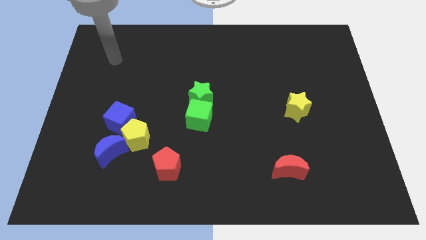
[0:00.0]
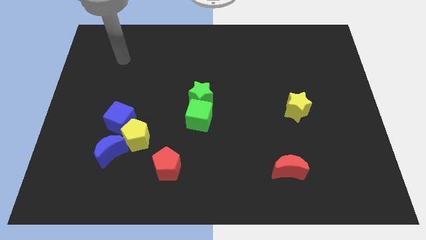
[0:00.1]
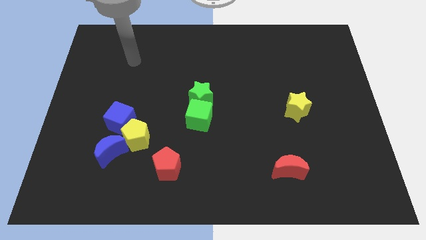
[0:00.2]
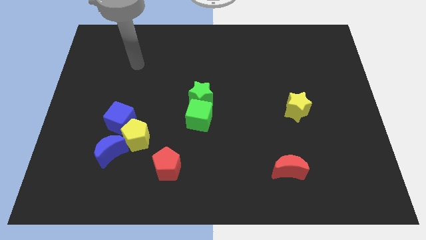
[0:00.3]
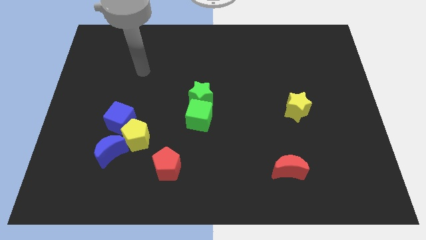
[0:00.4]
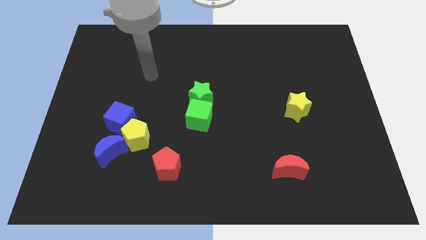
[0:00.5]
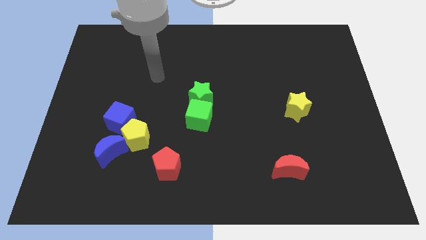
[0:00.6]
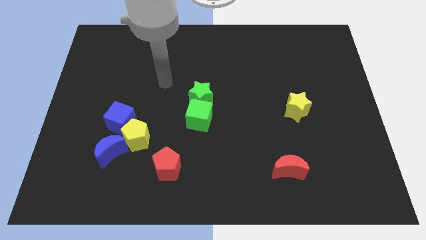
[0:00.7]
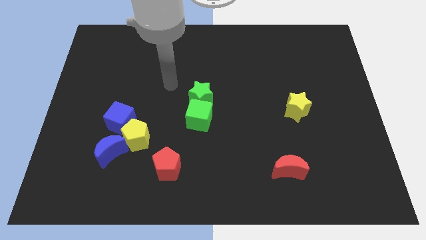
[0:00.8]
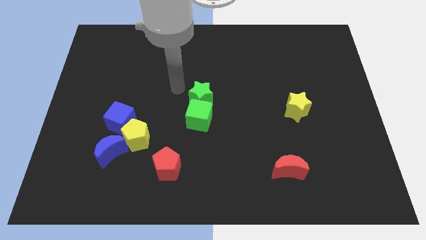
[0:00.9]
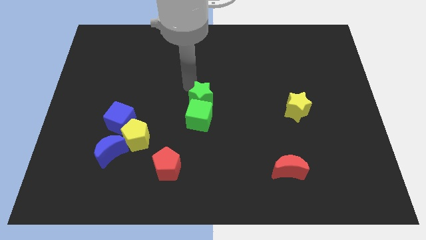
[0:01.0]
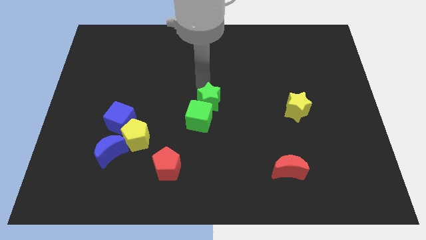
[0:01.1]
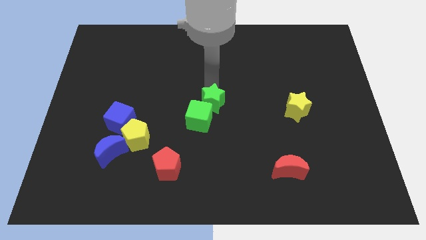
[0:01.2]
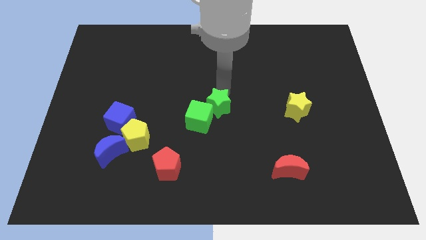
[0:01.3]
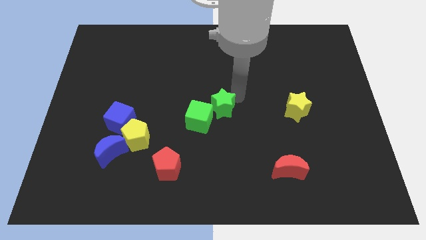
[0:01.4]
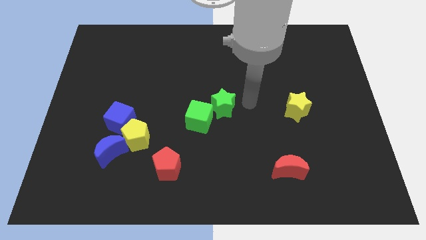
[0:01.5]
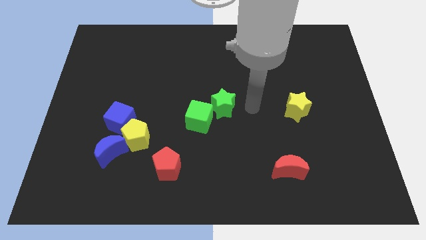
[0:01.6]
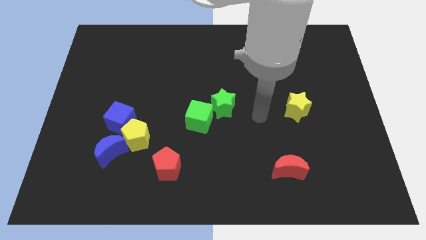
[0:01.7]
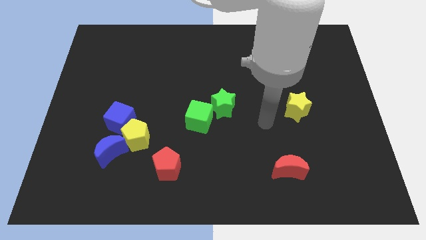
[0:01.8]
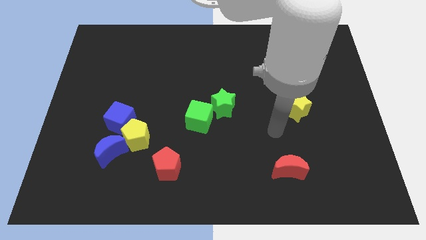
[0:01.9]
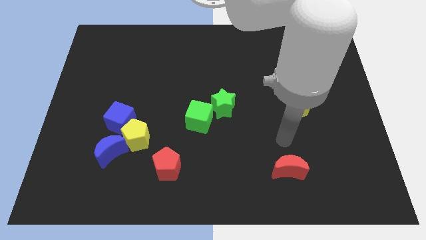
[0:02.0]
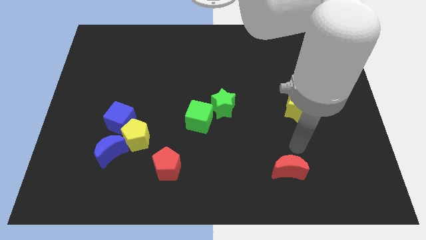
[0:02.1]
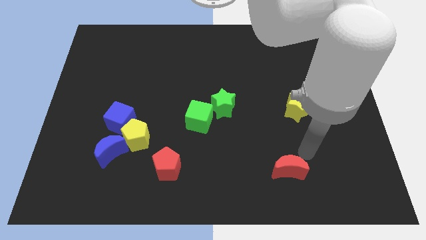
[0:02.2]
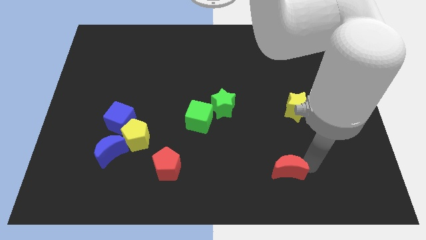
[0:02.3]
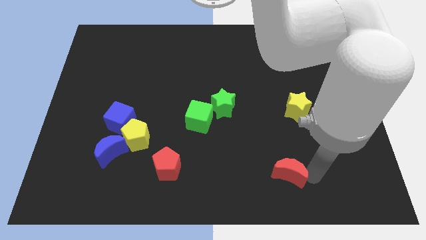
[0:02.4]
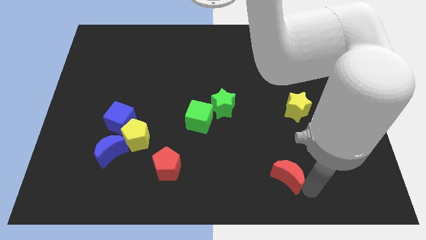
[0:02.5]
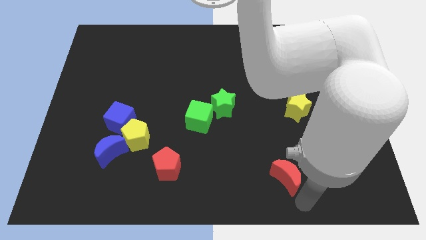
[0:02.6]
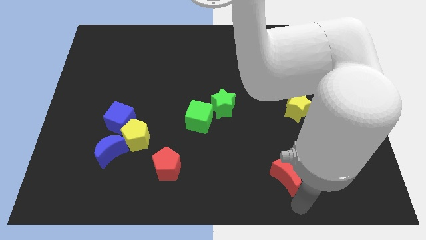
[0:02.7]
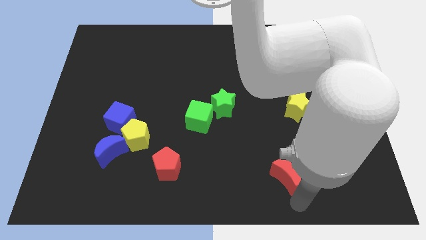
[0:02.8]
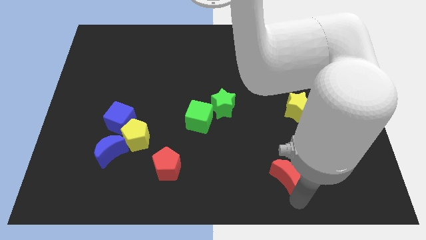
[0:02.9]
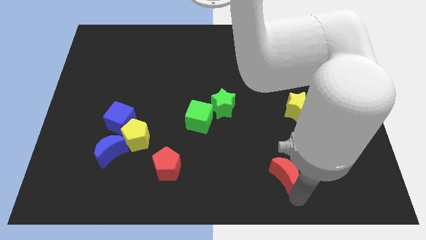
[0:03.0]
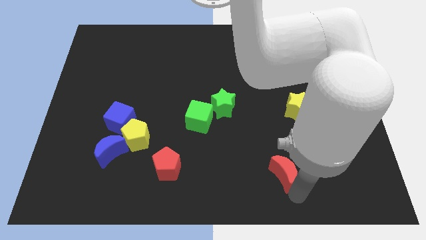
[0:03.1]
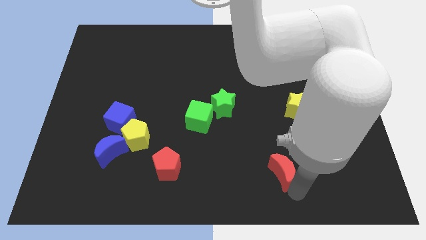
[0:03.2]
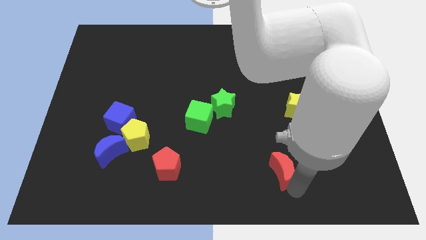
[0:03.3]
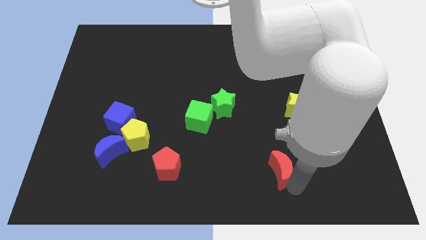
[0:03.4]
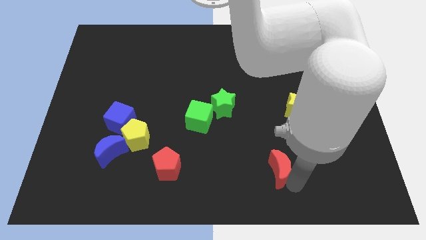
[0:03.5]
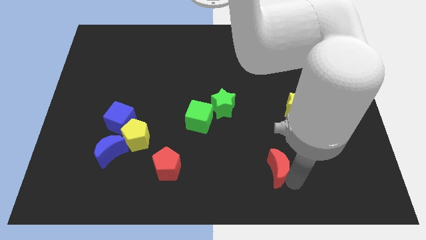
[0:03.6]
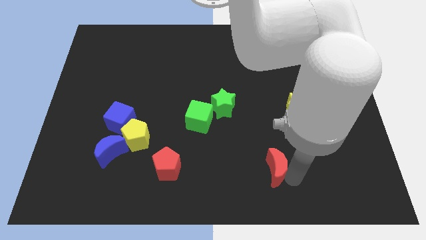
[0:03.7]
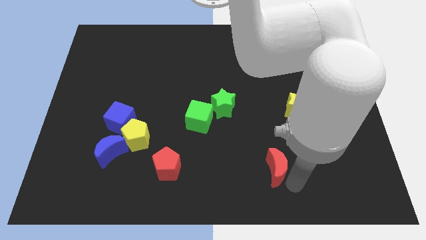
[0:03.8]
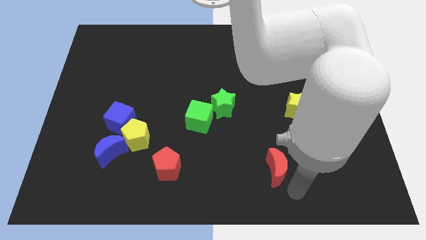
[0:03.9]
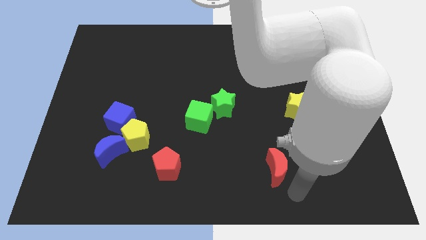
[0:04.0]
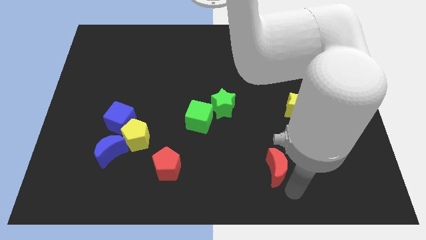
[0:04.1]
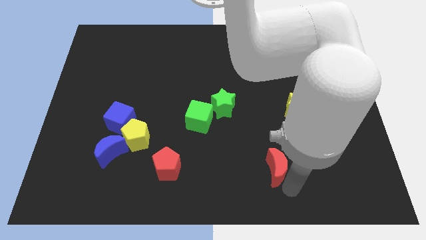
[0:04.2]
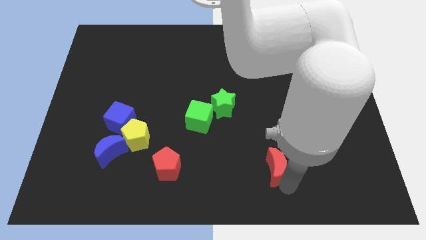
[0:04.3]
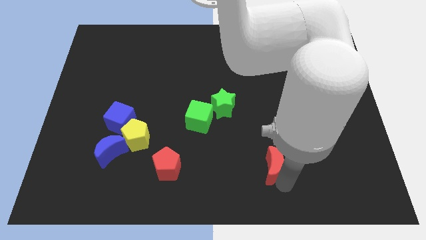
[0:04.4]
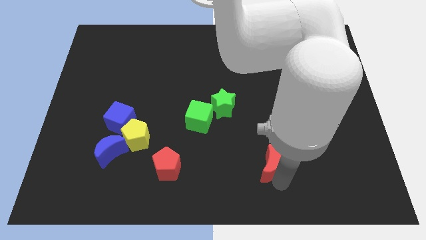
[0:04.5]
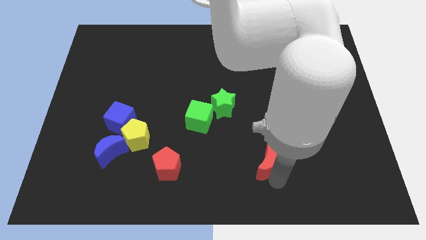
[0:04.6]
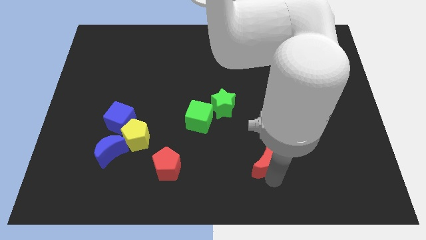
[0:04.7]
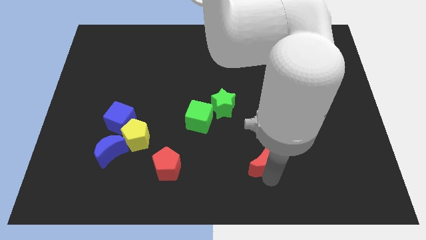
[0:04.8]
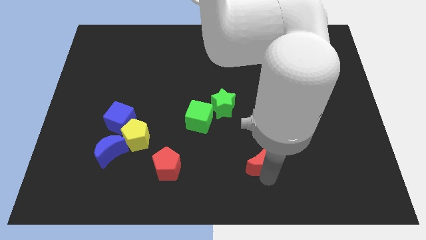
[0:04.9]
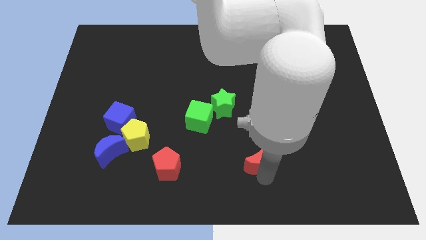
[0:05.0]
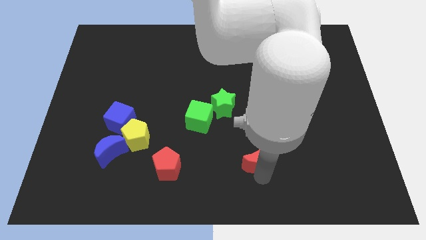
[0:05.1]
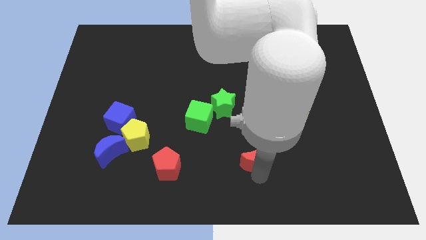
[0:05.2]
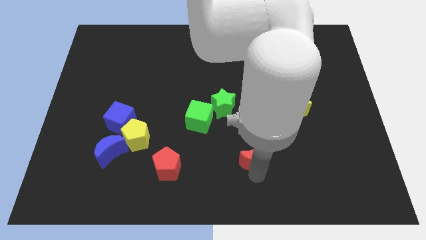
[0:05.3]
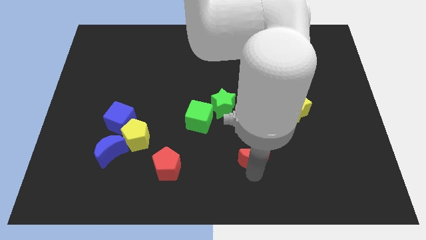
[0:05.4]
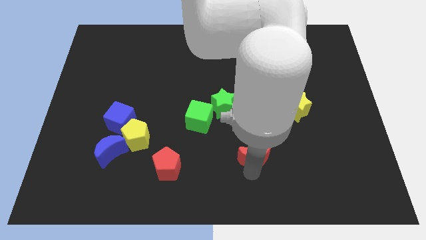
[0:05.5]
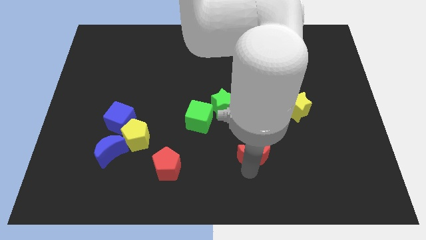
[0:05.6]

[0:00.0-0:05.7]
move the red moon a bit upwards and to the left diagonally

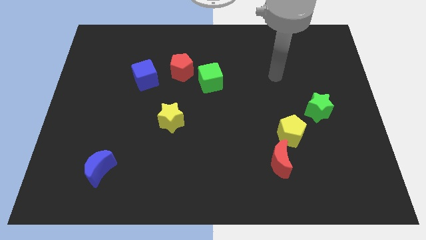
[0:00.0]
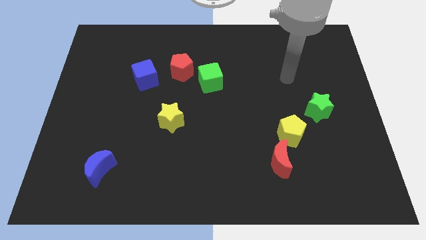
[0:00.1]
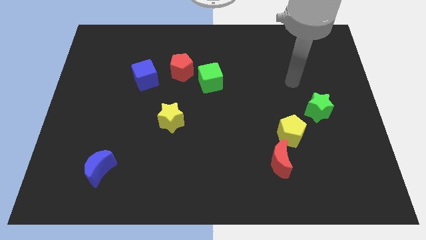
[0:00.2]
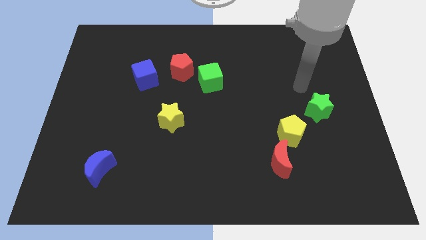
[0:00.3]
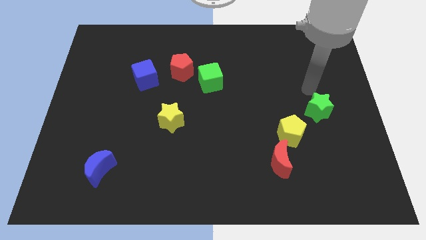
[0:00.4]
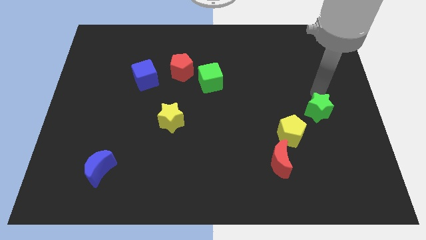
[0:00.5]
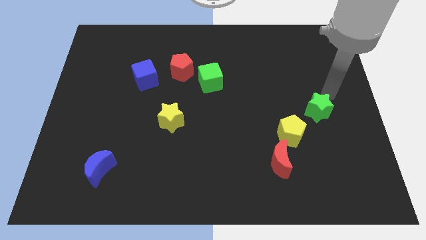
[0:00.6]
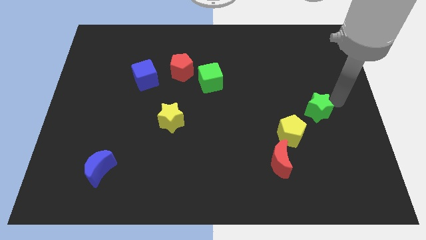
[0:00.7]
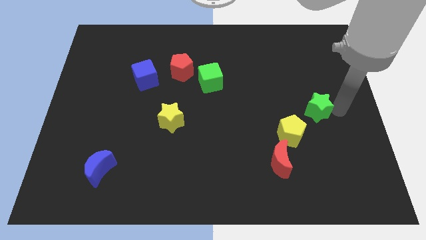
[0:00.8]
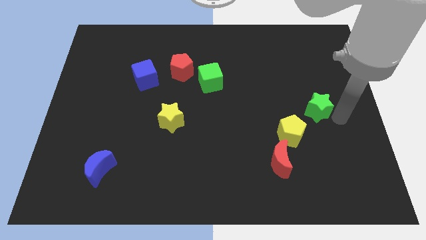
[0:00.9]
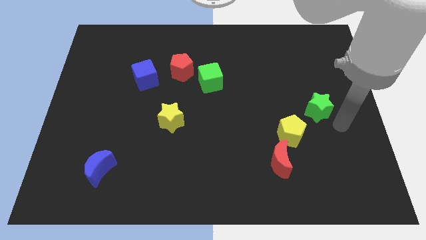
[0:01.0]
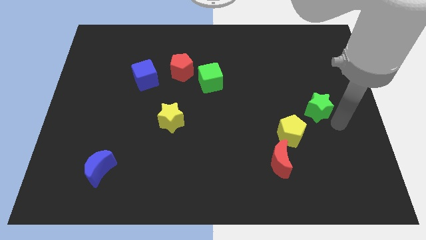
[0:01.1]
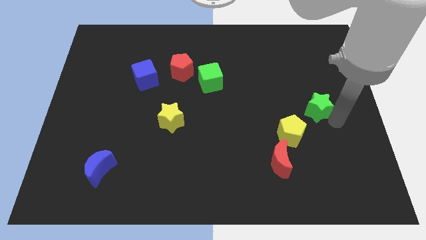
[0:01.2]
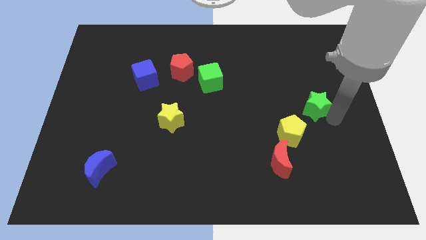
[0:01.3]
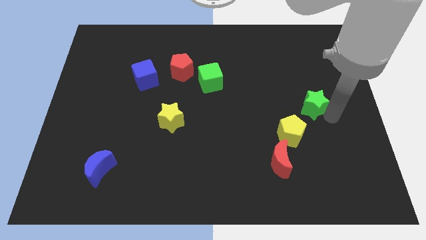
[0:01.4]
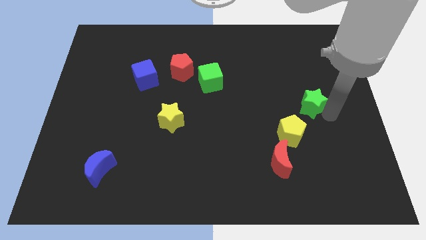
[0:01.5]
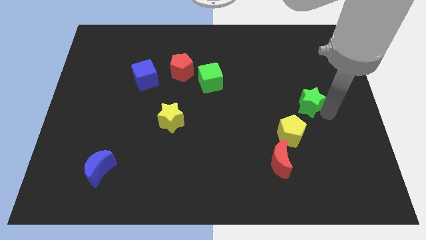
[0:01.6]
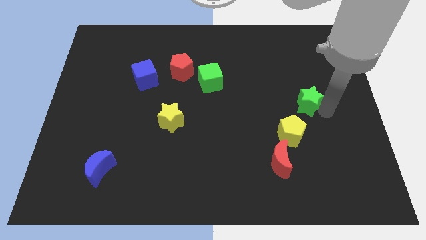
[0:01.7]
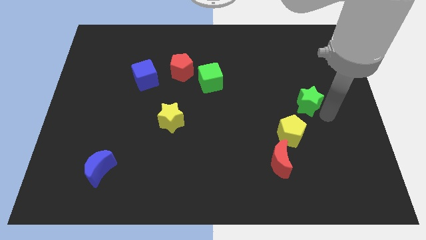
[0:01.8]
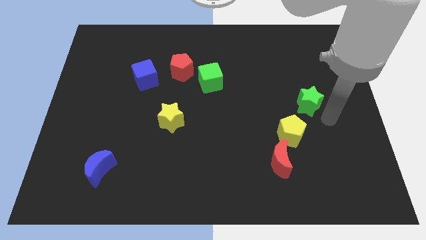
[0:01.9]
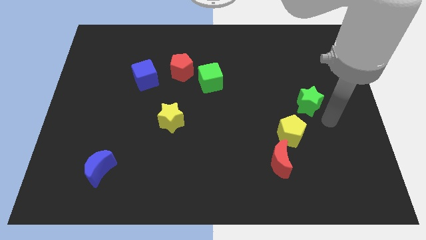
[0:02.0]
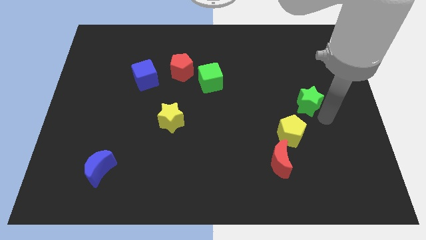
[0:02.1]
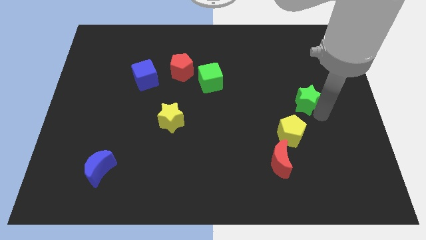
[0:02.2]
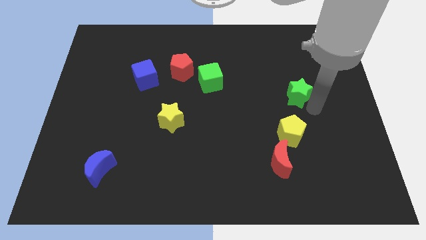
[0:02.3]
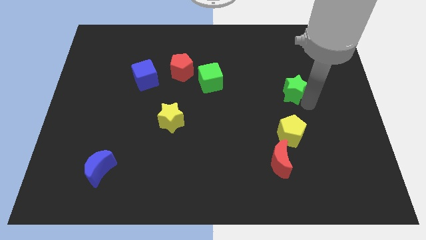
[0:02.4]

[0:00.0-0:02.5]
slightly push the green star diagonally up and to the left
